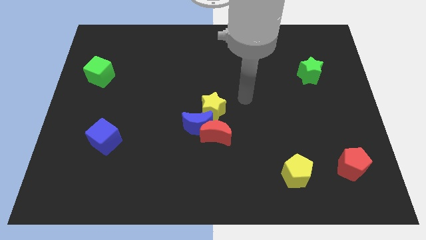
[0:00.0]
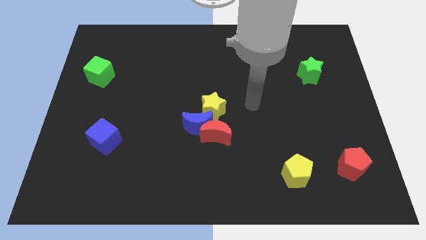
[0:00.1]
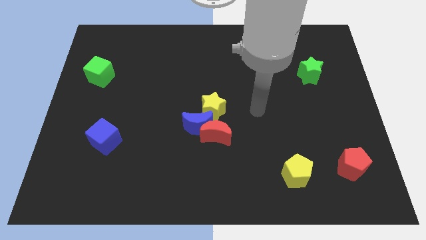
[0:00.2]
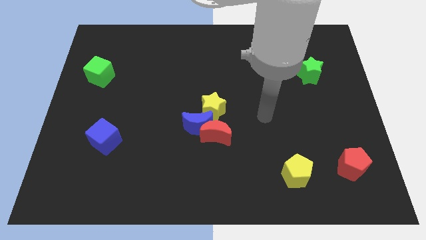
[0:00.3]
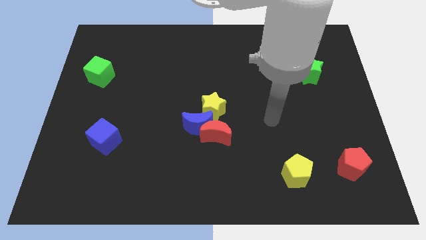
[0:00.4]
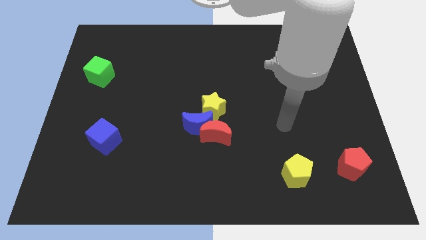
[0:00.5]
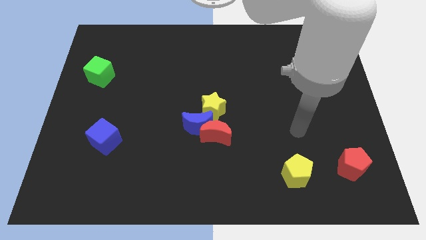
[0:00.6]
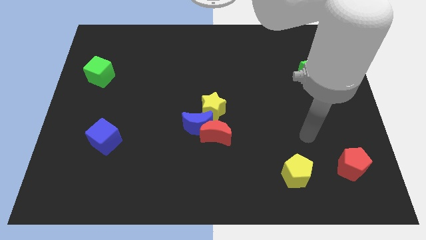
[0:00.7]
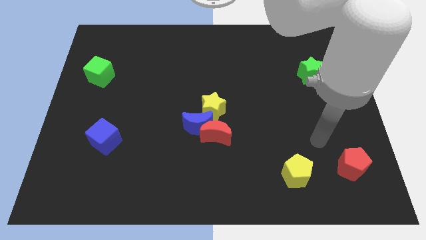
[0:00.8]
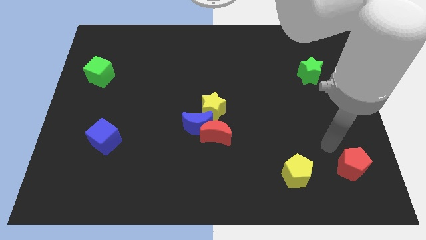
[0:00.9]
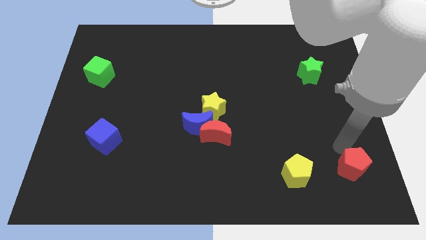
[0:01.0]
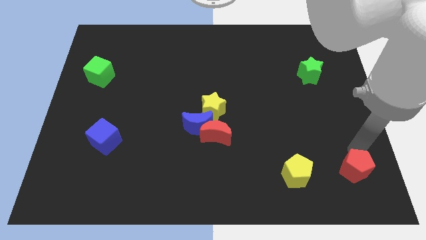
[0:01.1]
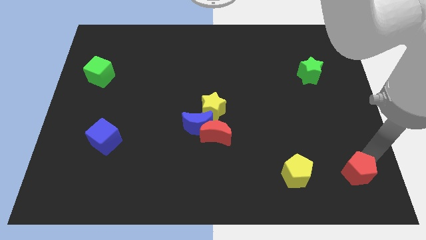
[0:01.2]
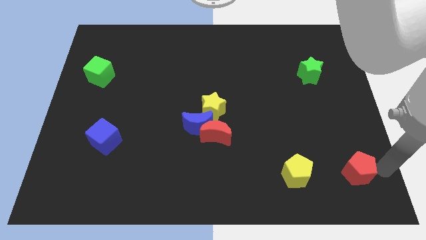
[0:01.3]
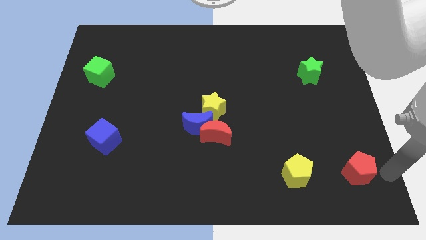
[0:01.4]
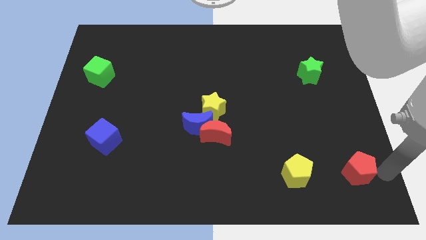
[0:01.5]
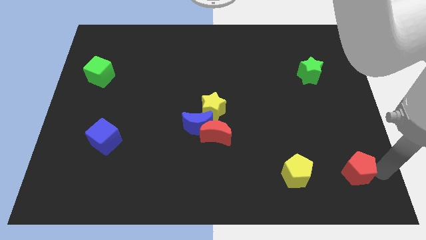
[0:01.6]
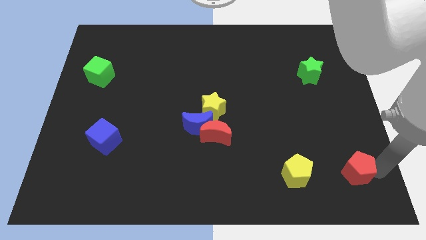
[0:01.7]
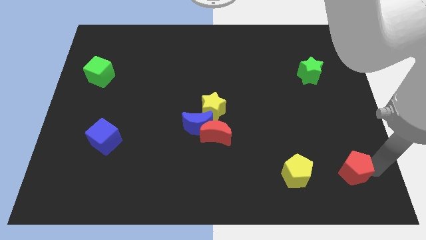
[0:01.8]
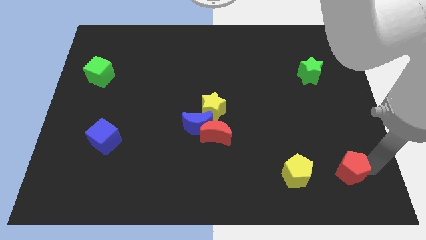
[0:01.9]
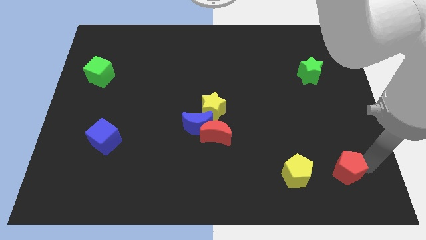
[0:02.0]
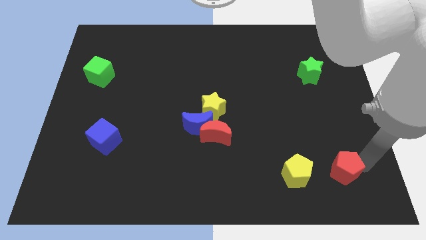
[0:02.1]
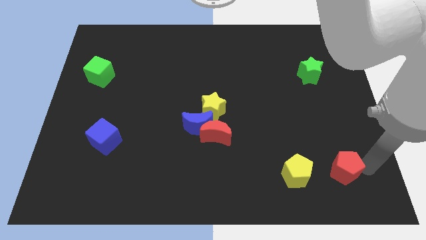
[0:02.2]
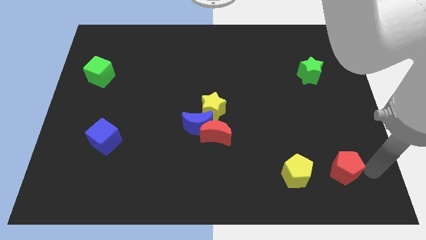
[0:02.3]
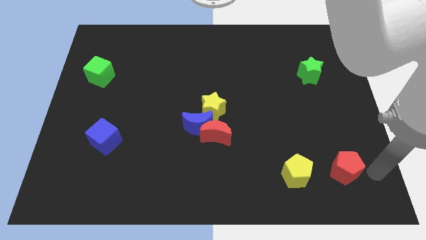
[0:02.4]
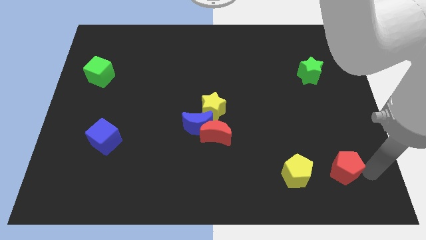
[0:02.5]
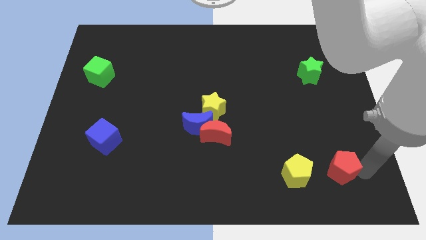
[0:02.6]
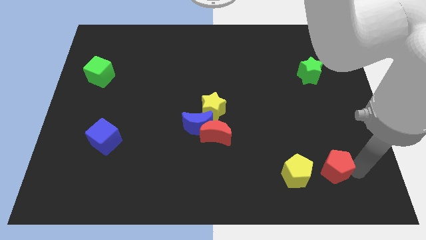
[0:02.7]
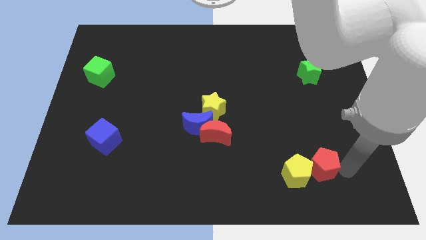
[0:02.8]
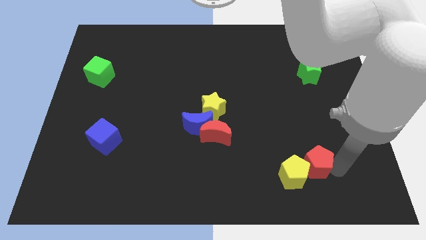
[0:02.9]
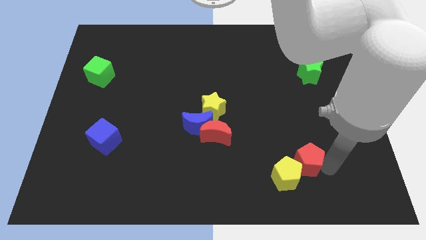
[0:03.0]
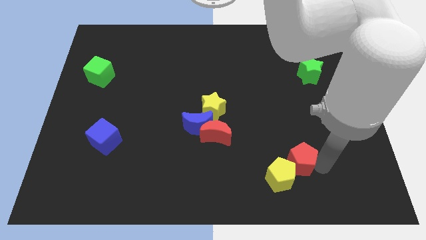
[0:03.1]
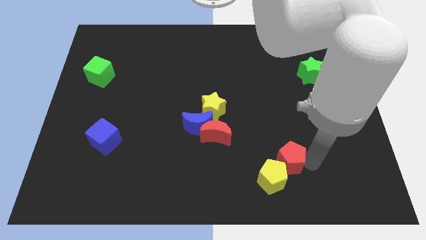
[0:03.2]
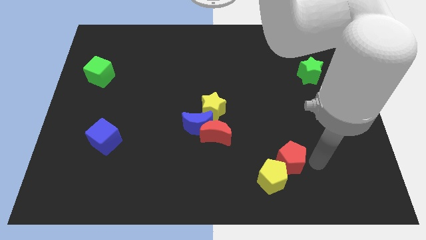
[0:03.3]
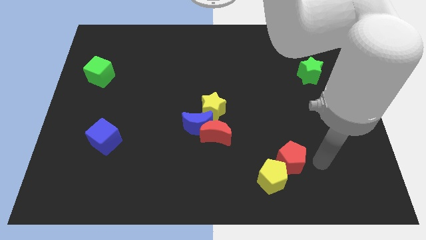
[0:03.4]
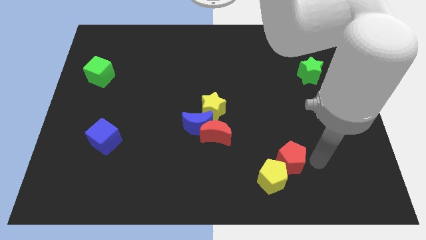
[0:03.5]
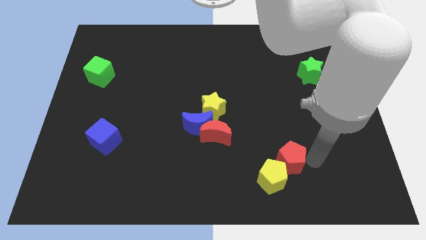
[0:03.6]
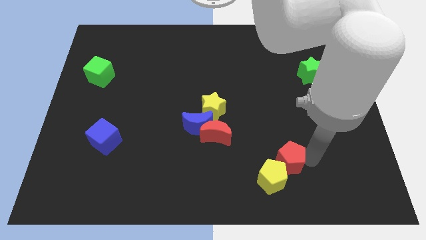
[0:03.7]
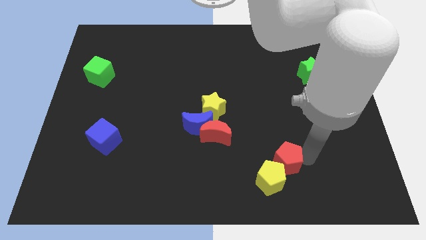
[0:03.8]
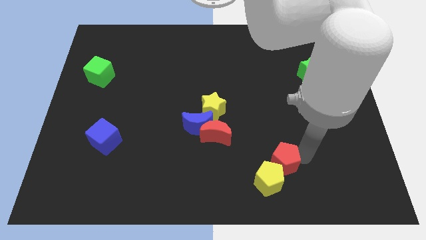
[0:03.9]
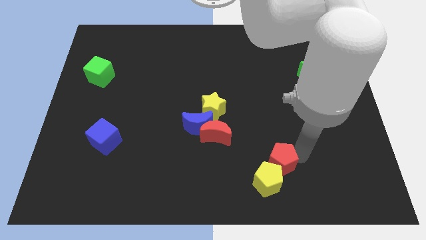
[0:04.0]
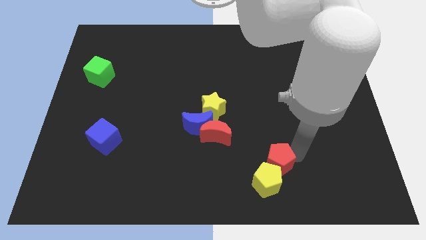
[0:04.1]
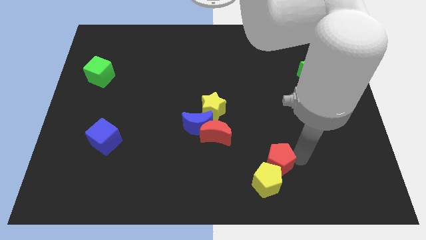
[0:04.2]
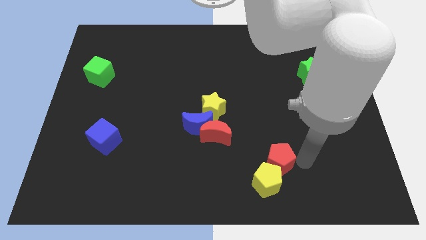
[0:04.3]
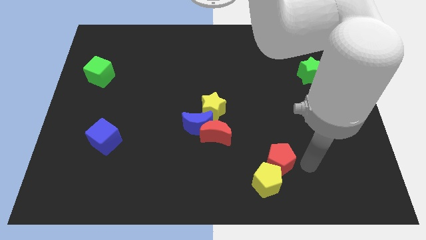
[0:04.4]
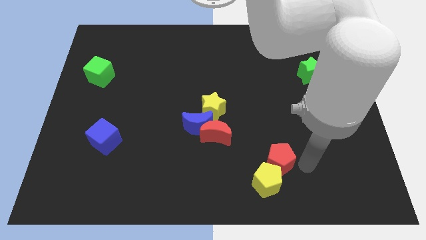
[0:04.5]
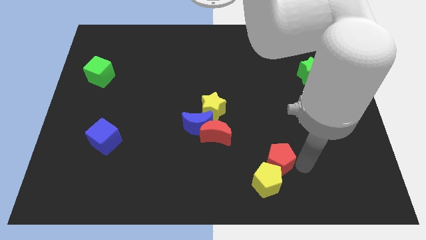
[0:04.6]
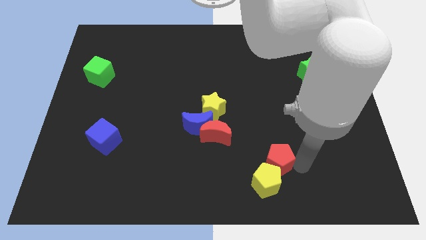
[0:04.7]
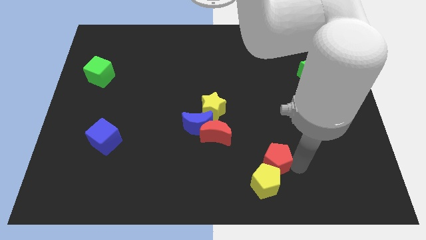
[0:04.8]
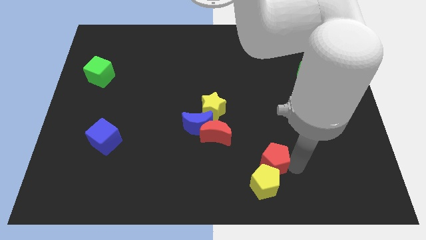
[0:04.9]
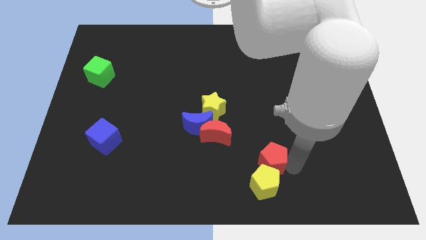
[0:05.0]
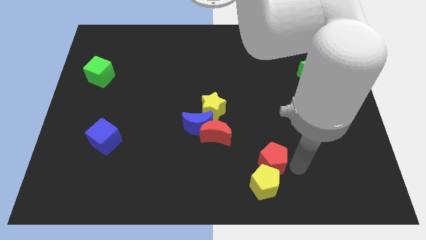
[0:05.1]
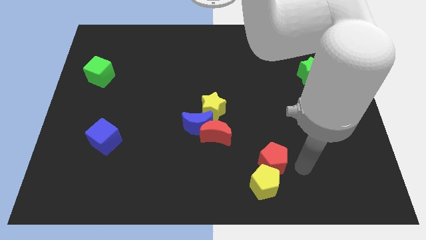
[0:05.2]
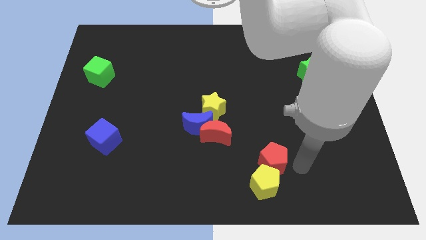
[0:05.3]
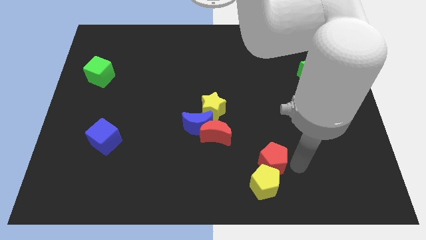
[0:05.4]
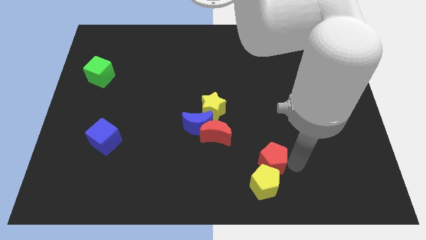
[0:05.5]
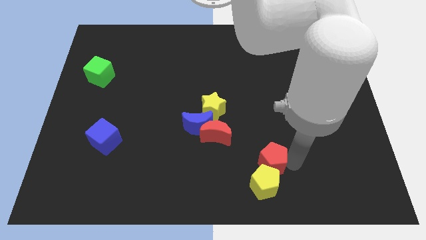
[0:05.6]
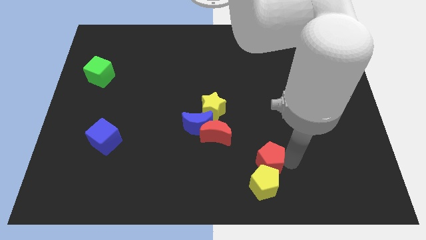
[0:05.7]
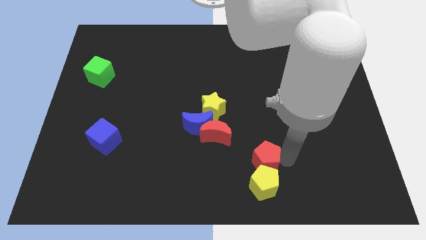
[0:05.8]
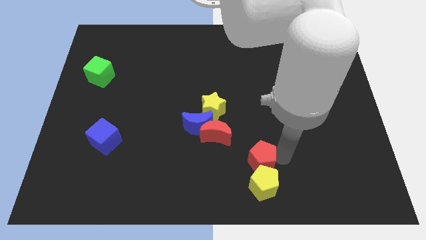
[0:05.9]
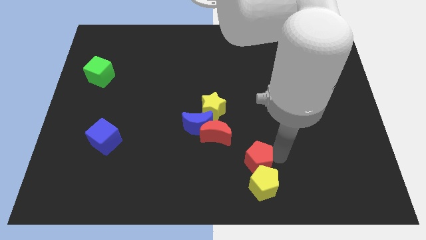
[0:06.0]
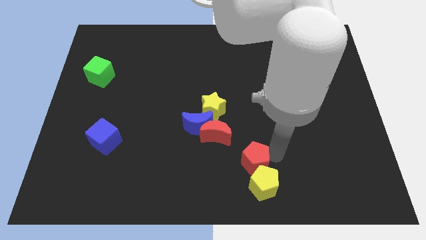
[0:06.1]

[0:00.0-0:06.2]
slide the red pentagon to the left

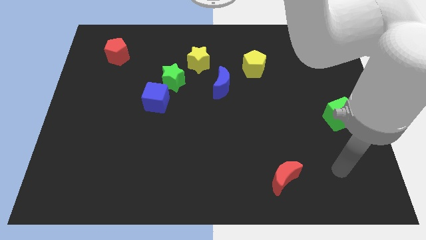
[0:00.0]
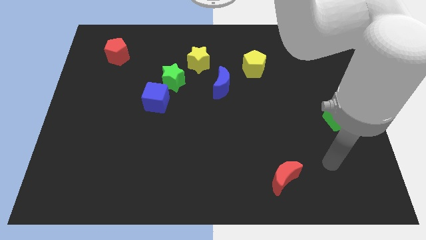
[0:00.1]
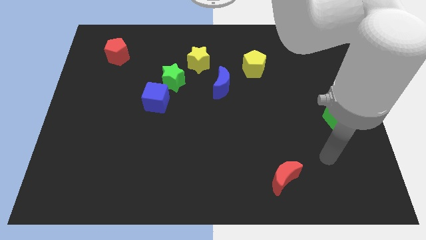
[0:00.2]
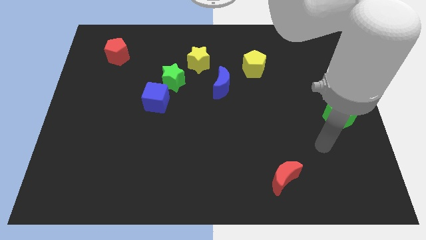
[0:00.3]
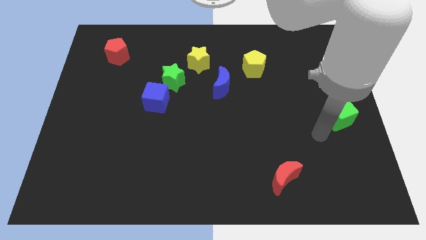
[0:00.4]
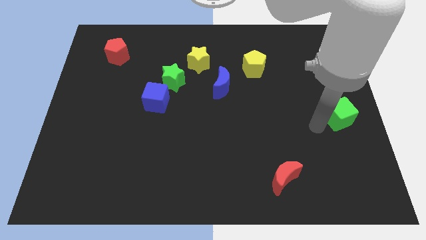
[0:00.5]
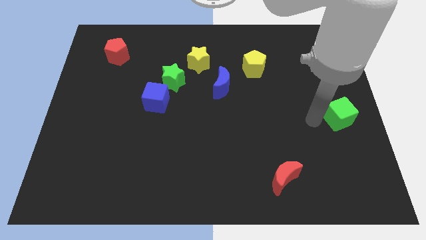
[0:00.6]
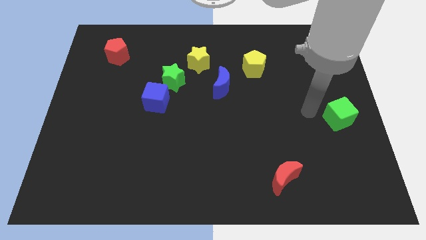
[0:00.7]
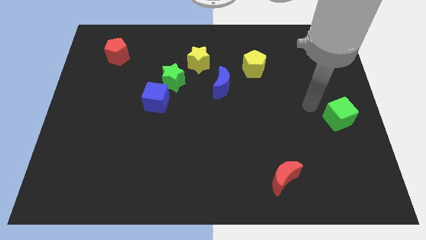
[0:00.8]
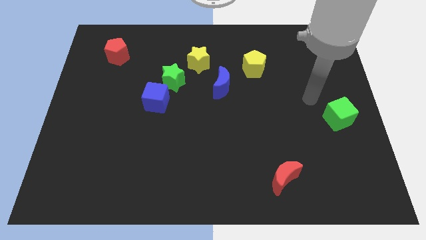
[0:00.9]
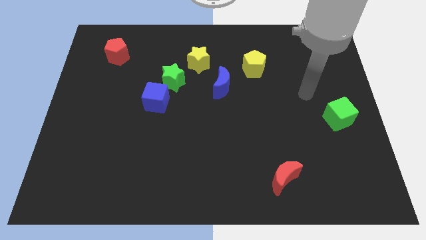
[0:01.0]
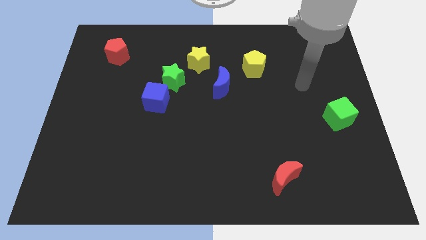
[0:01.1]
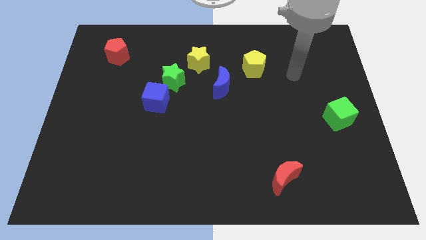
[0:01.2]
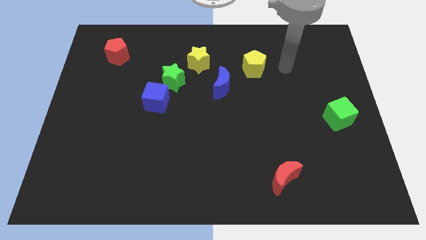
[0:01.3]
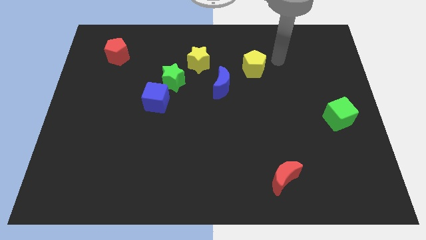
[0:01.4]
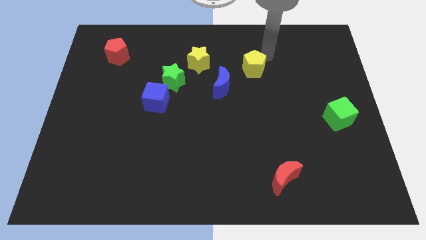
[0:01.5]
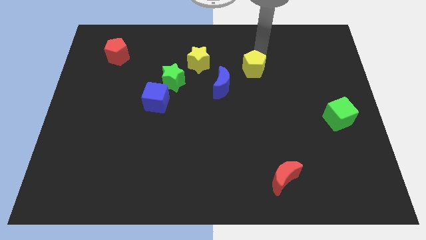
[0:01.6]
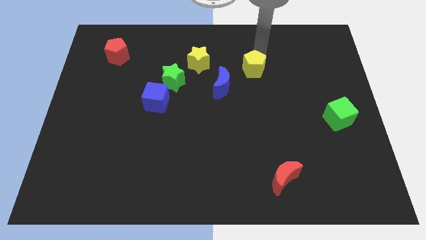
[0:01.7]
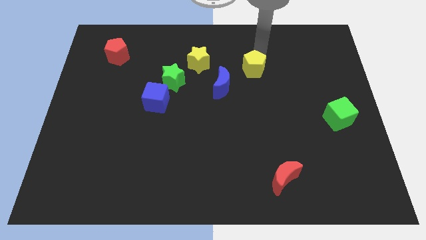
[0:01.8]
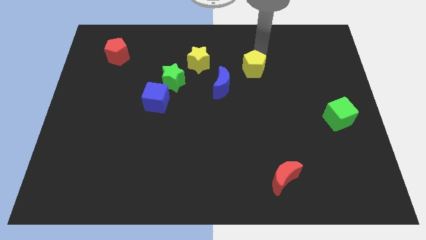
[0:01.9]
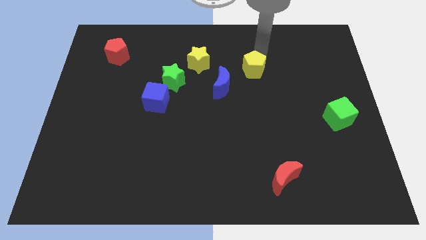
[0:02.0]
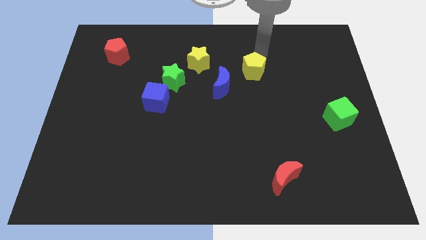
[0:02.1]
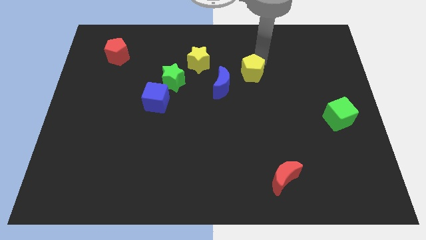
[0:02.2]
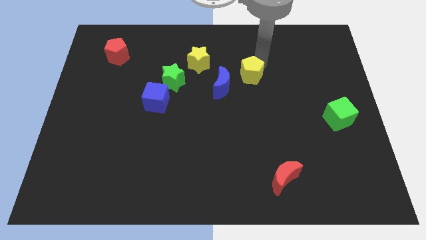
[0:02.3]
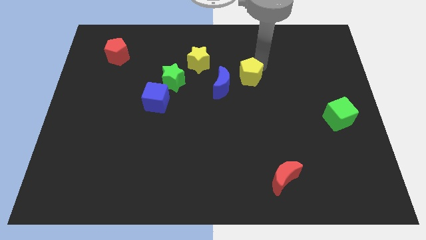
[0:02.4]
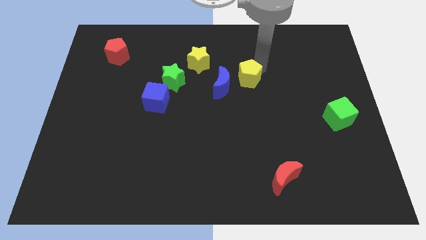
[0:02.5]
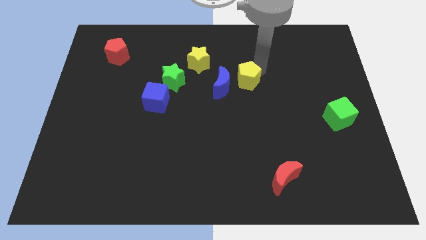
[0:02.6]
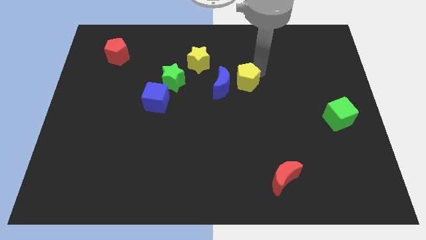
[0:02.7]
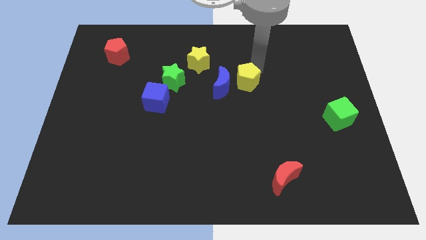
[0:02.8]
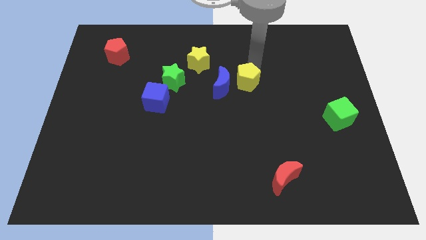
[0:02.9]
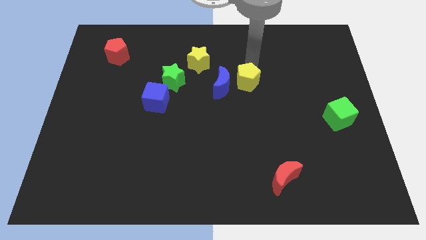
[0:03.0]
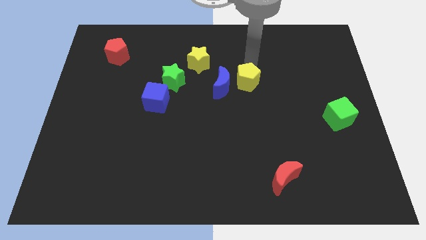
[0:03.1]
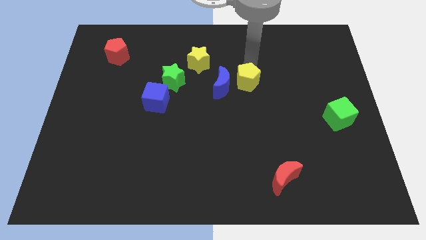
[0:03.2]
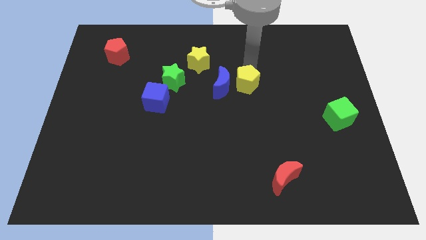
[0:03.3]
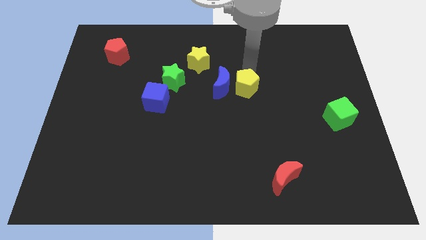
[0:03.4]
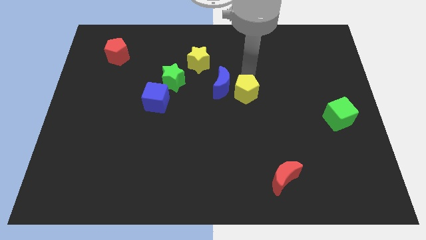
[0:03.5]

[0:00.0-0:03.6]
push the yellow pentagon down and then left slightly
